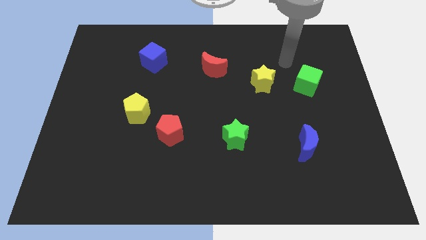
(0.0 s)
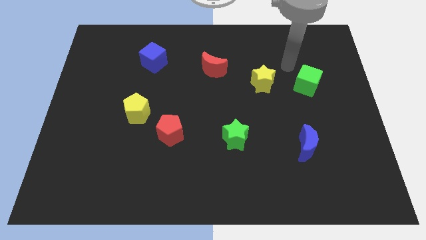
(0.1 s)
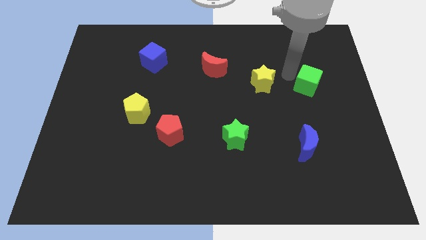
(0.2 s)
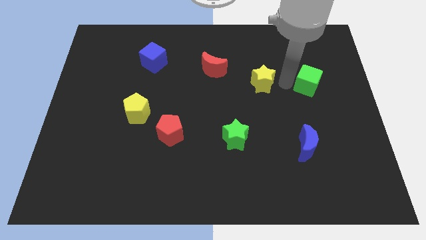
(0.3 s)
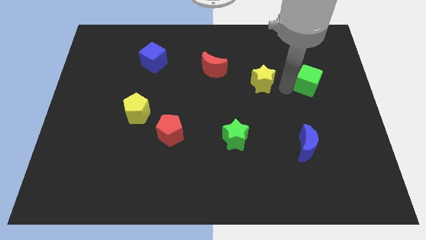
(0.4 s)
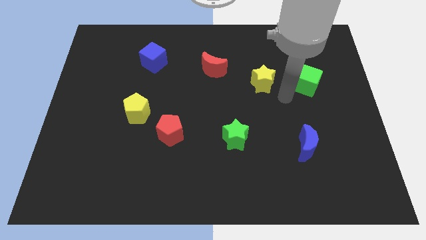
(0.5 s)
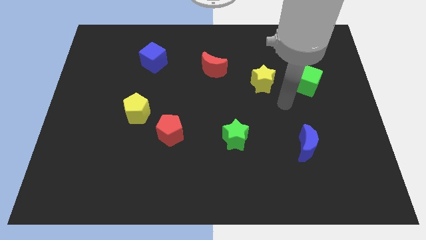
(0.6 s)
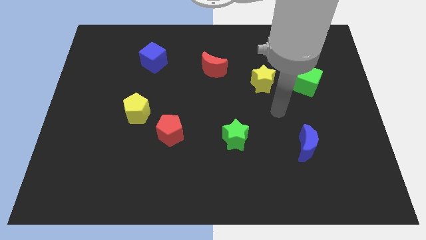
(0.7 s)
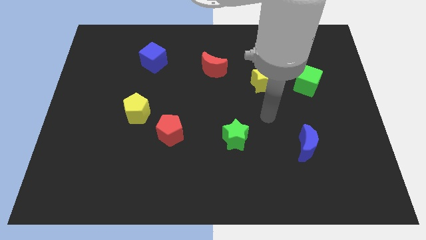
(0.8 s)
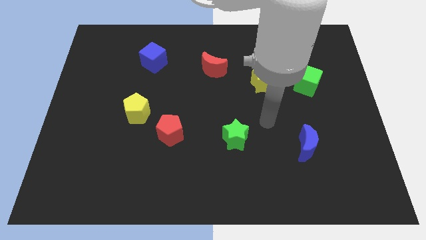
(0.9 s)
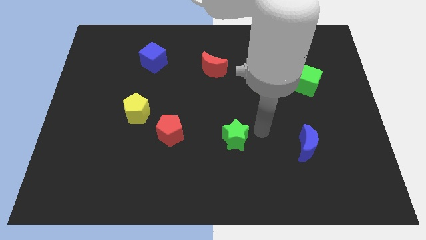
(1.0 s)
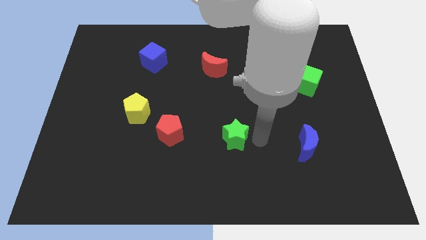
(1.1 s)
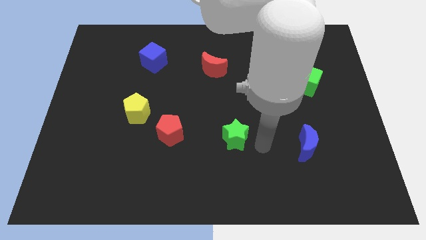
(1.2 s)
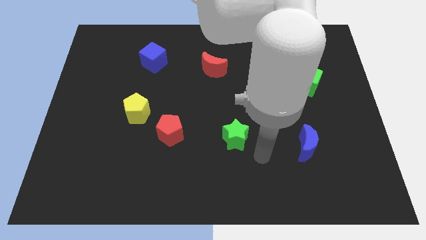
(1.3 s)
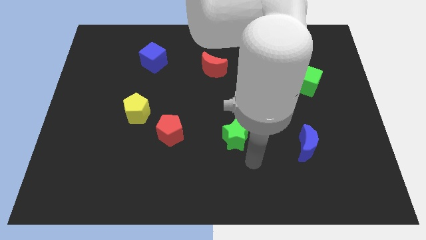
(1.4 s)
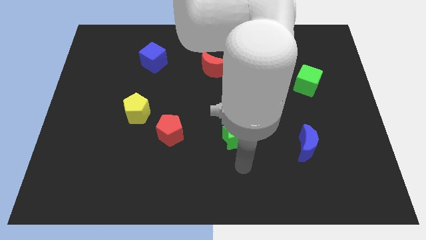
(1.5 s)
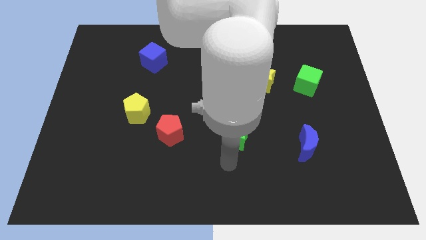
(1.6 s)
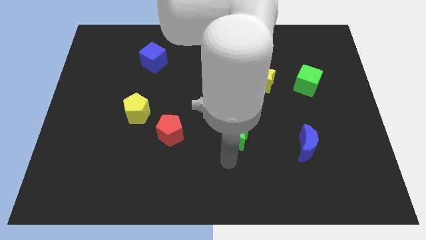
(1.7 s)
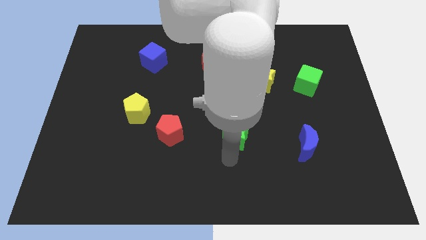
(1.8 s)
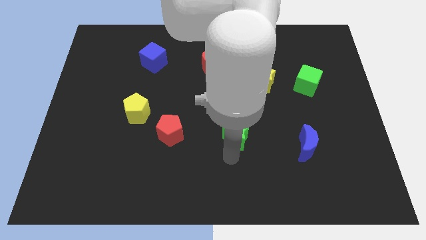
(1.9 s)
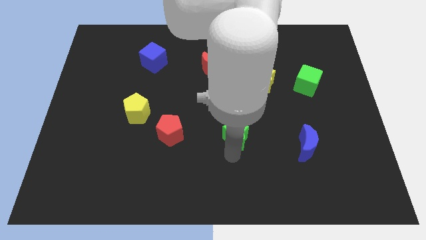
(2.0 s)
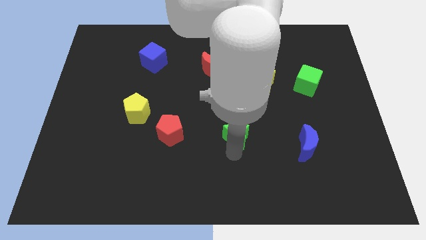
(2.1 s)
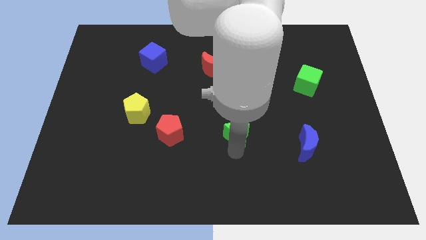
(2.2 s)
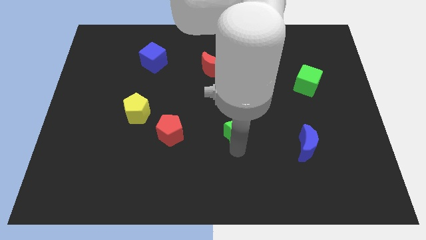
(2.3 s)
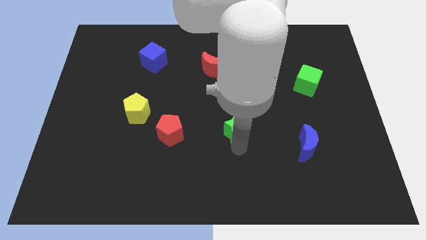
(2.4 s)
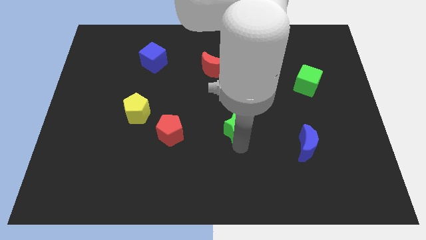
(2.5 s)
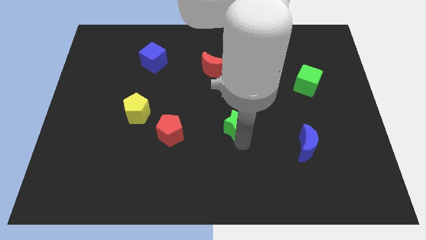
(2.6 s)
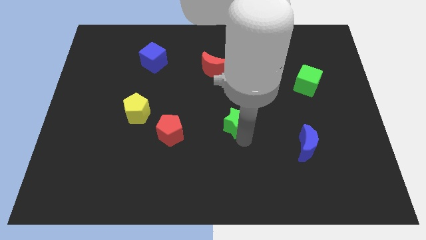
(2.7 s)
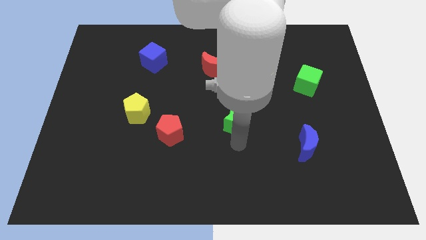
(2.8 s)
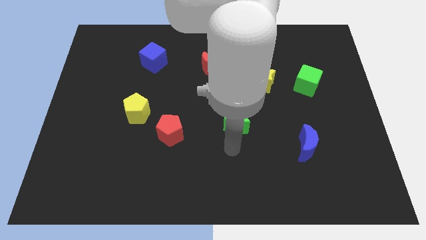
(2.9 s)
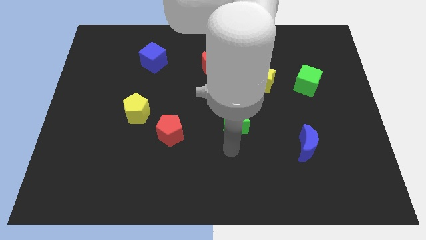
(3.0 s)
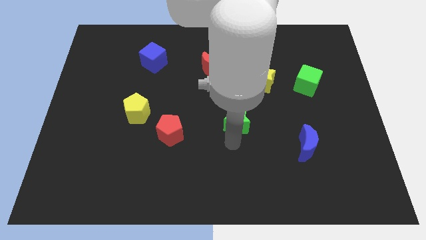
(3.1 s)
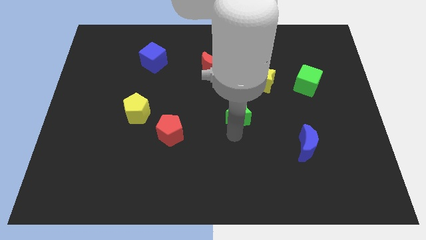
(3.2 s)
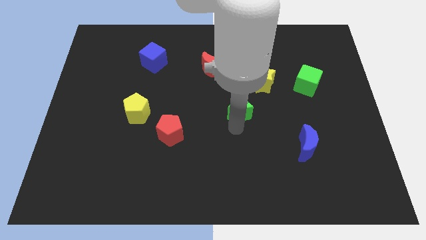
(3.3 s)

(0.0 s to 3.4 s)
slightly move the green star upwards

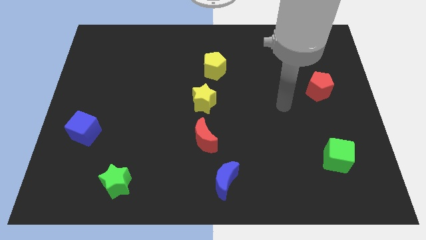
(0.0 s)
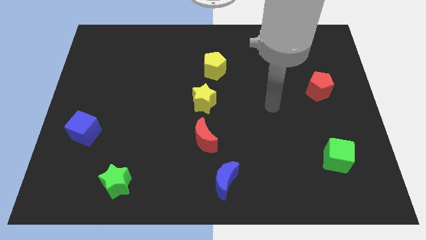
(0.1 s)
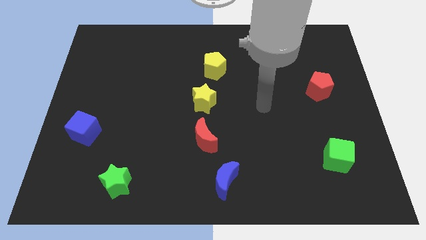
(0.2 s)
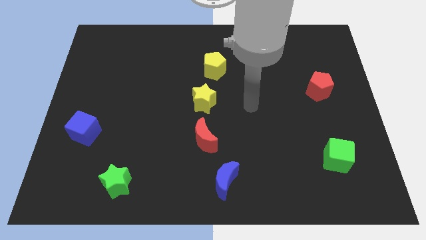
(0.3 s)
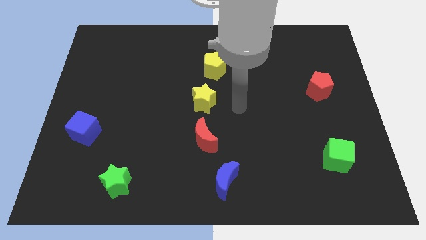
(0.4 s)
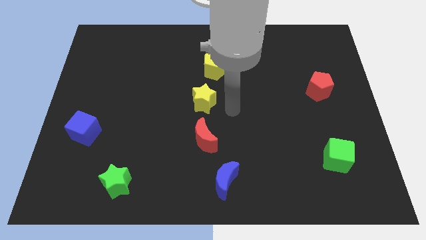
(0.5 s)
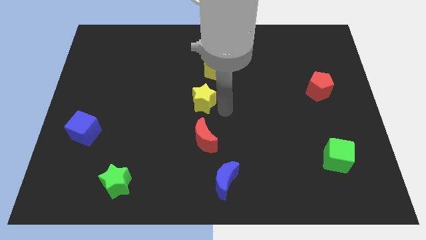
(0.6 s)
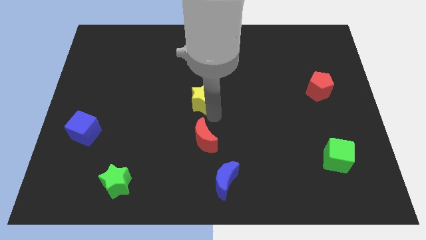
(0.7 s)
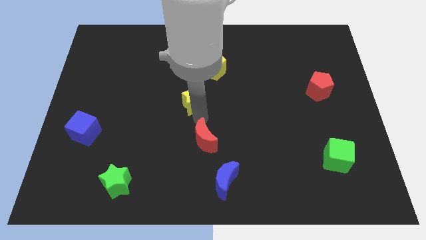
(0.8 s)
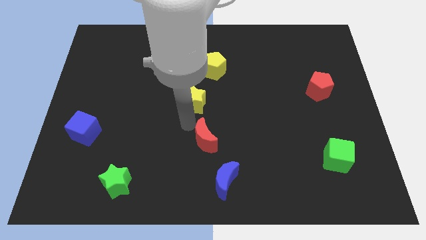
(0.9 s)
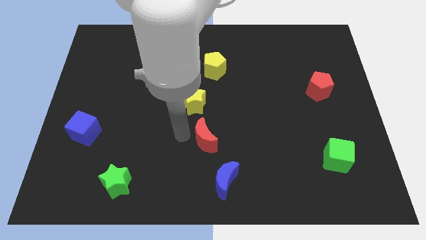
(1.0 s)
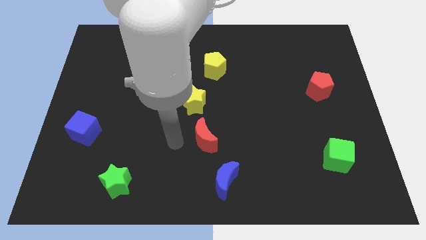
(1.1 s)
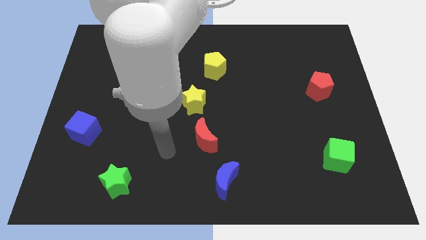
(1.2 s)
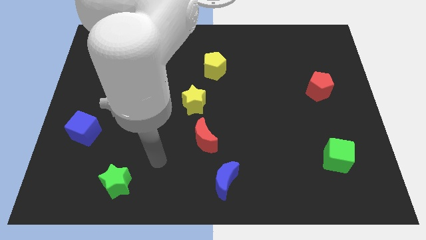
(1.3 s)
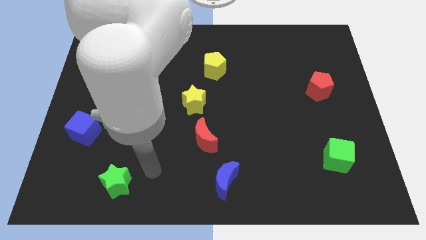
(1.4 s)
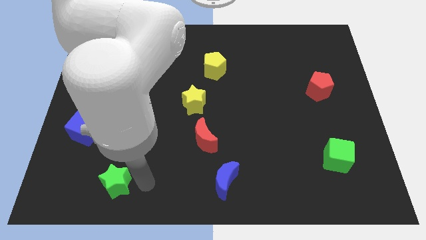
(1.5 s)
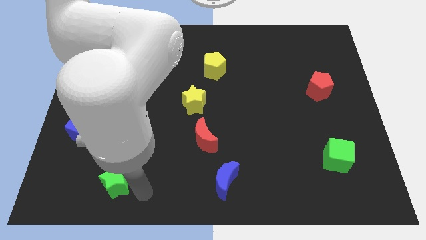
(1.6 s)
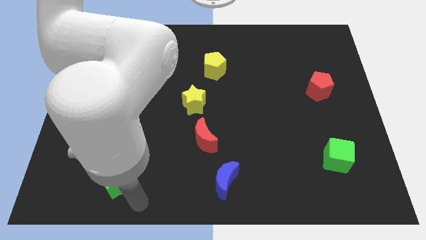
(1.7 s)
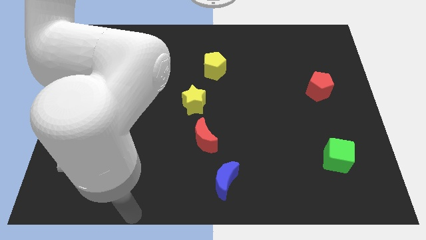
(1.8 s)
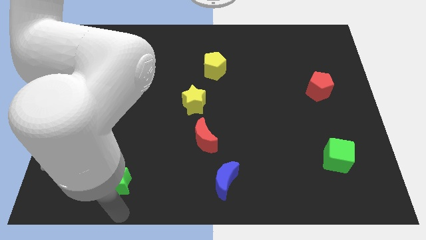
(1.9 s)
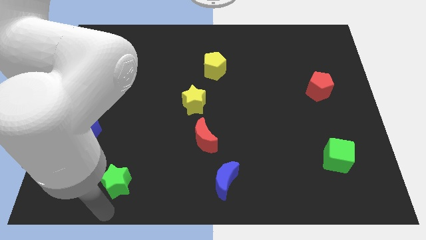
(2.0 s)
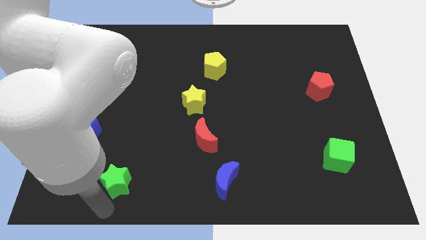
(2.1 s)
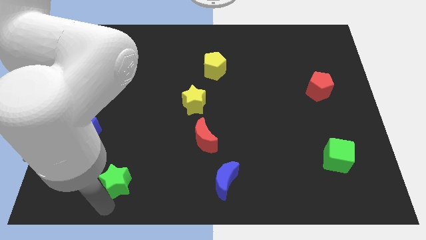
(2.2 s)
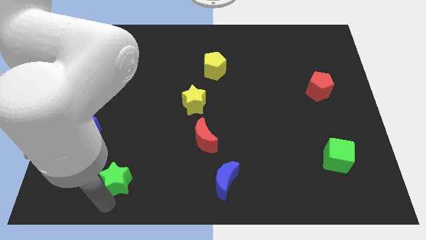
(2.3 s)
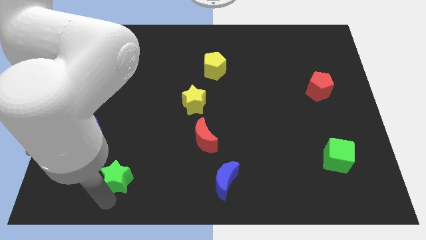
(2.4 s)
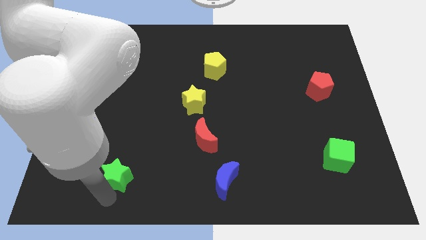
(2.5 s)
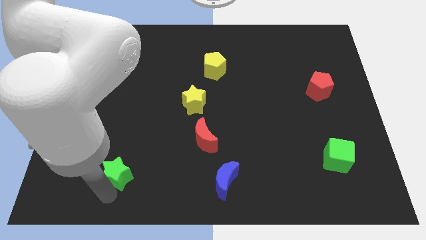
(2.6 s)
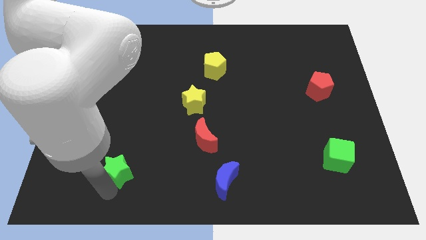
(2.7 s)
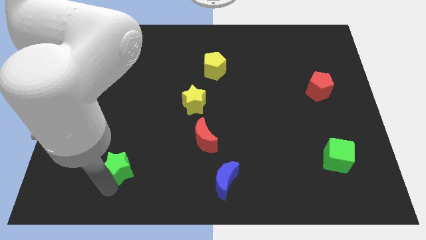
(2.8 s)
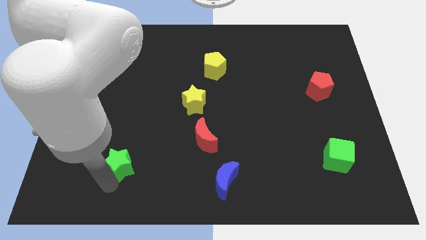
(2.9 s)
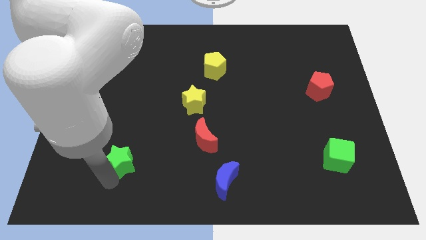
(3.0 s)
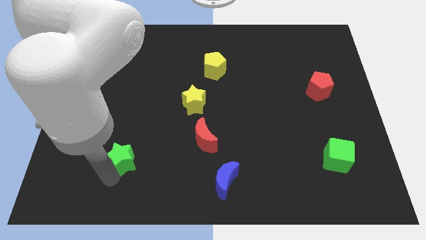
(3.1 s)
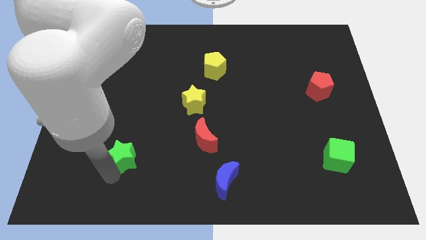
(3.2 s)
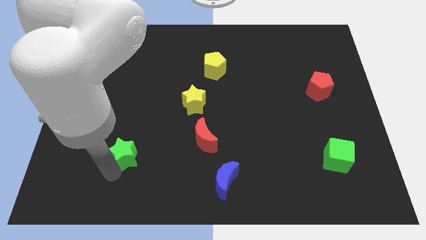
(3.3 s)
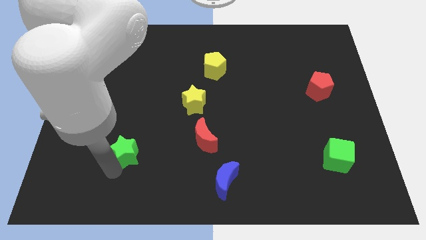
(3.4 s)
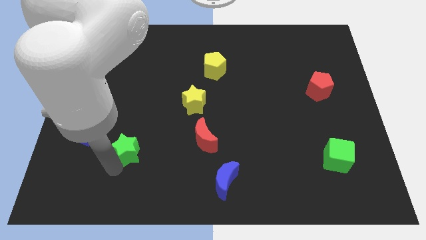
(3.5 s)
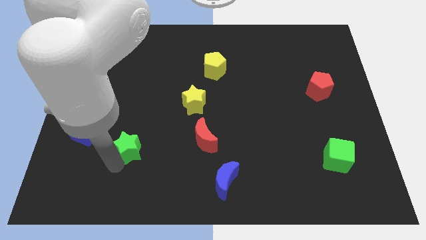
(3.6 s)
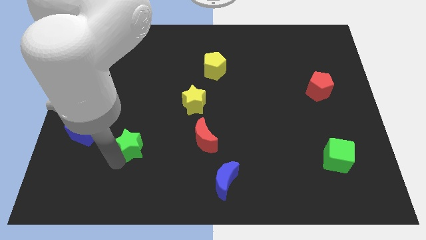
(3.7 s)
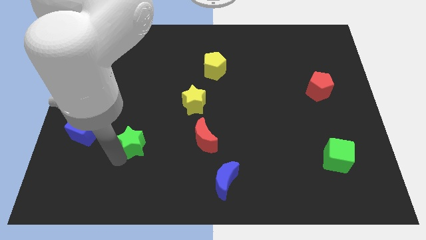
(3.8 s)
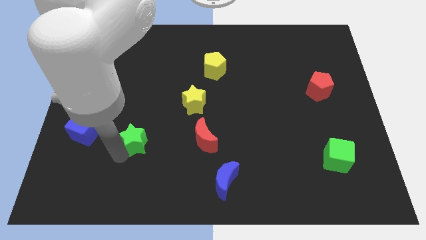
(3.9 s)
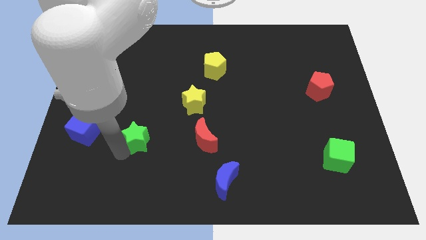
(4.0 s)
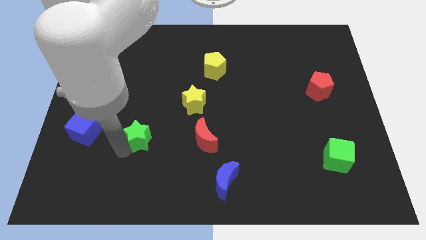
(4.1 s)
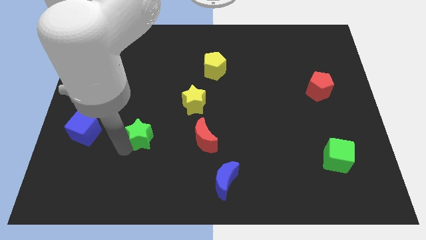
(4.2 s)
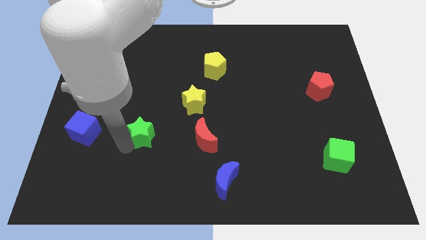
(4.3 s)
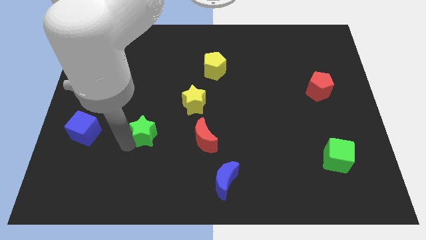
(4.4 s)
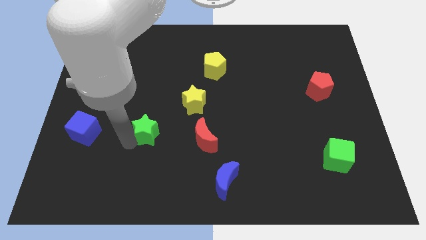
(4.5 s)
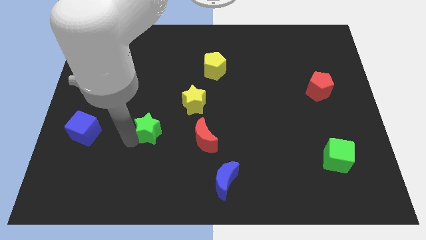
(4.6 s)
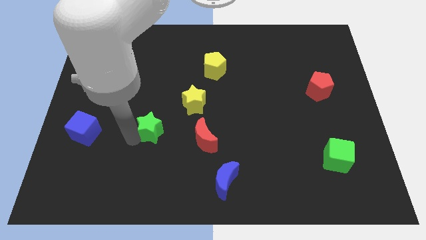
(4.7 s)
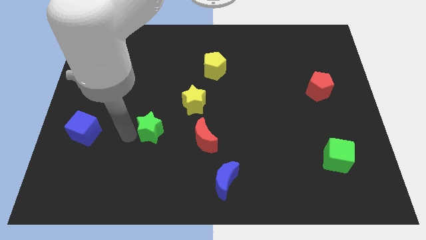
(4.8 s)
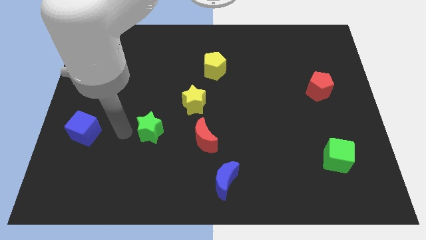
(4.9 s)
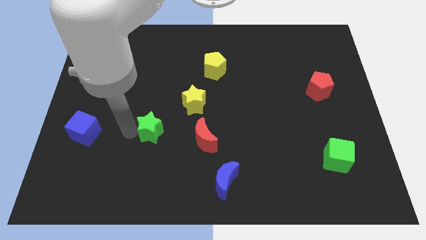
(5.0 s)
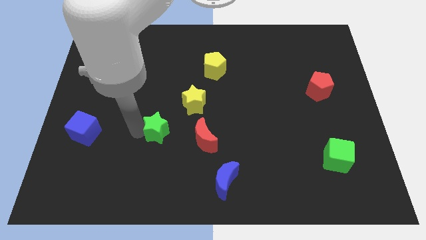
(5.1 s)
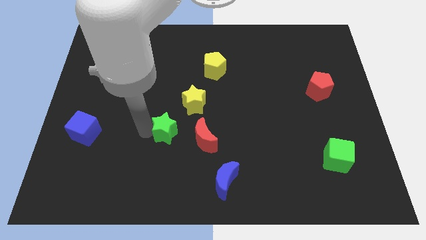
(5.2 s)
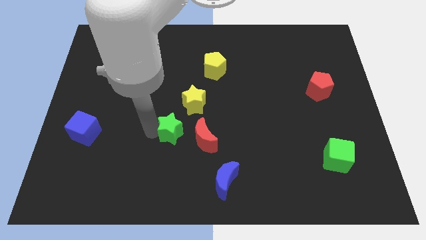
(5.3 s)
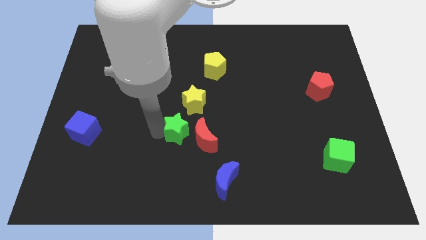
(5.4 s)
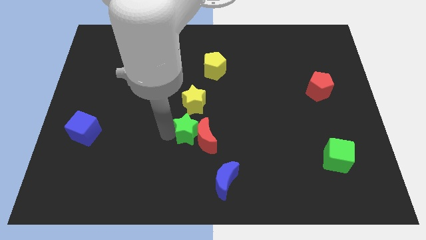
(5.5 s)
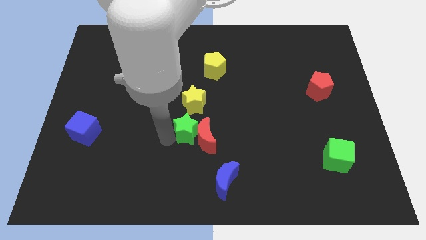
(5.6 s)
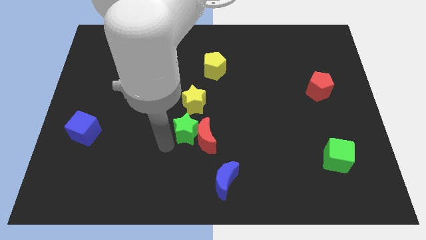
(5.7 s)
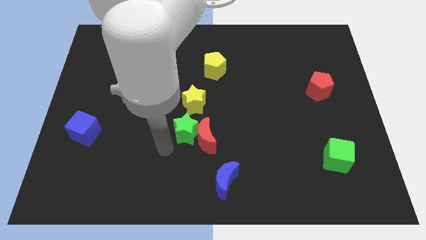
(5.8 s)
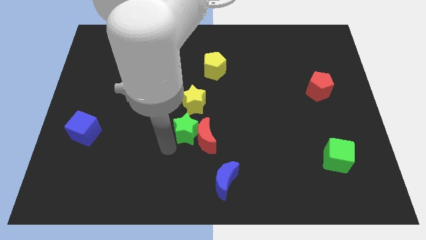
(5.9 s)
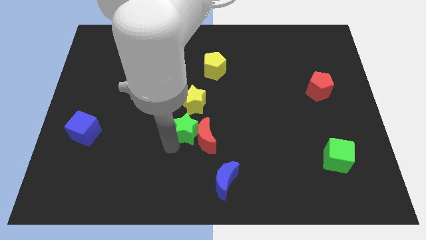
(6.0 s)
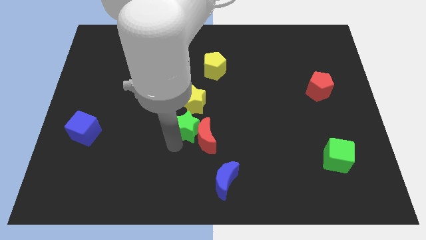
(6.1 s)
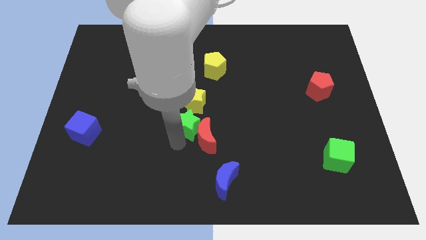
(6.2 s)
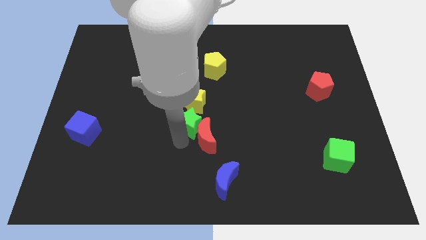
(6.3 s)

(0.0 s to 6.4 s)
push the green star diagonally up and right
